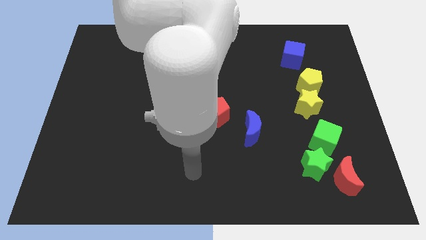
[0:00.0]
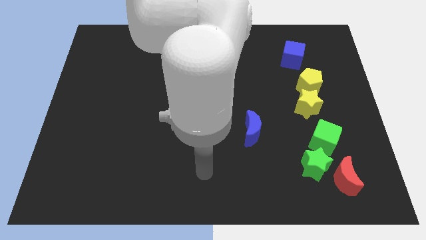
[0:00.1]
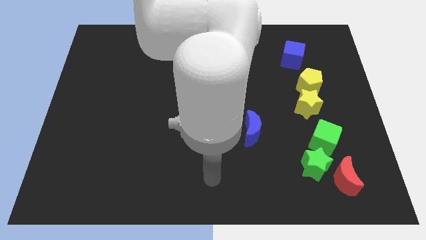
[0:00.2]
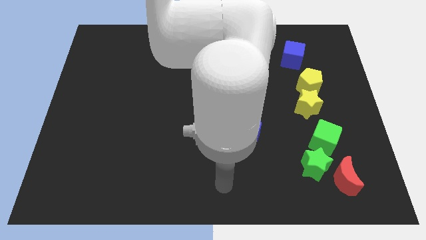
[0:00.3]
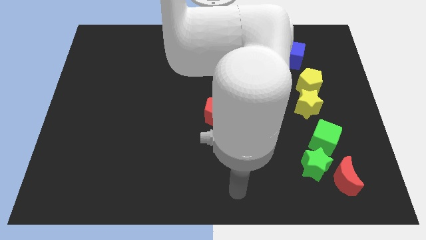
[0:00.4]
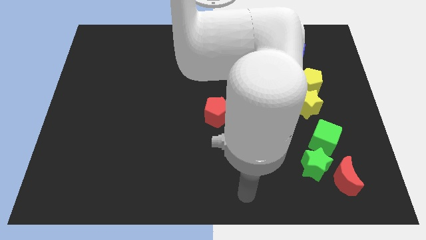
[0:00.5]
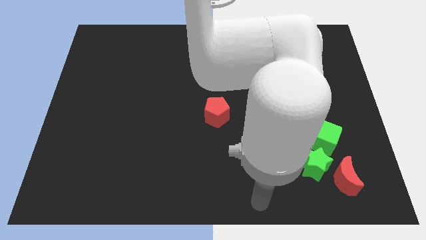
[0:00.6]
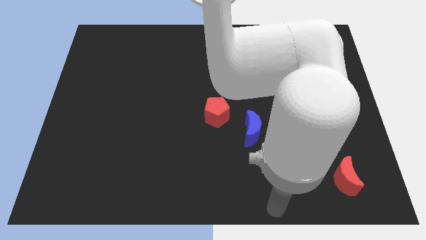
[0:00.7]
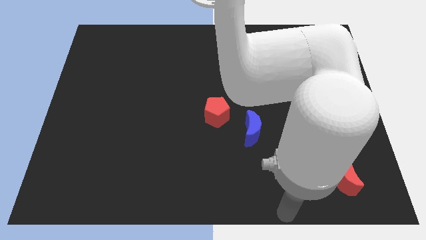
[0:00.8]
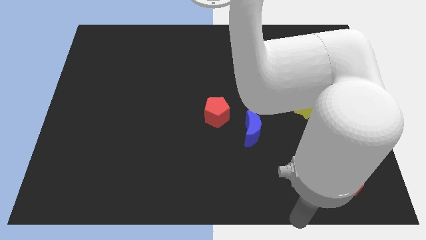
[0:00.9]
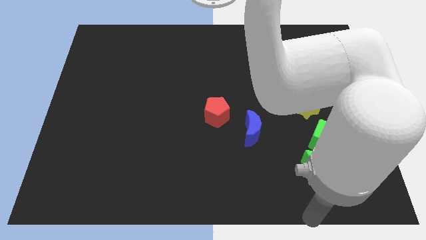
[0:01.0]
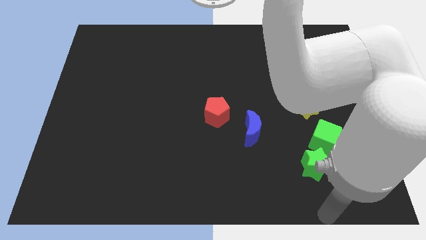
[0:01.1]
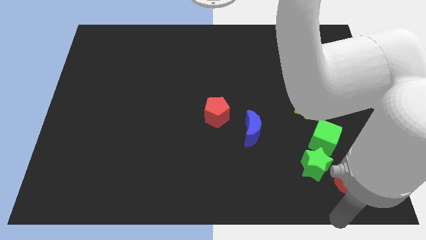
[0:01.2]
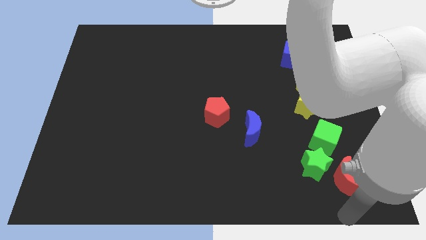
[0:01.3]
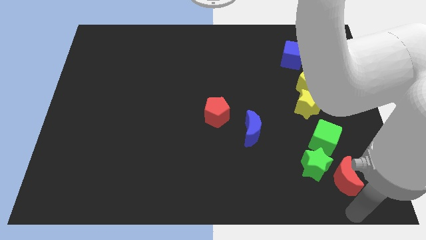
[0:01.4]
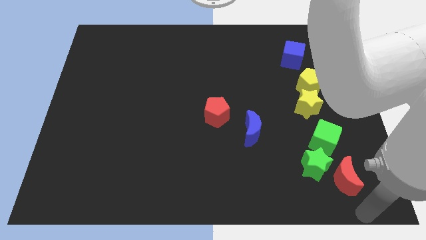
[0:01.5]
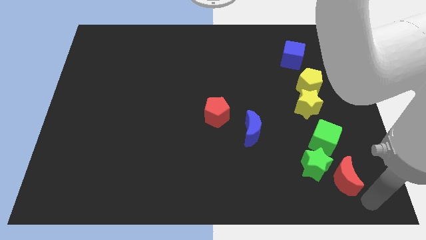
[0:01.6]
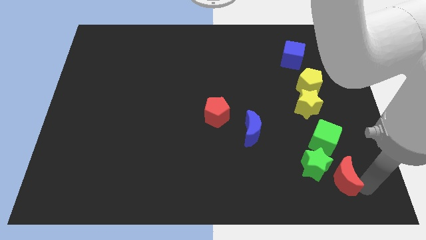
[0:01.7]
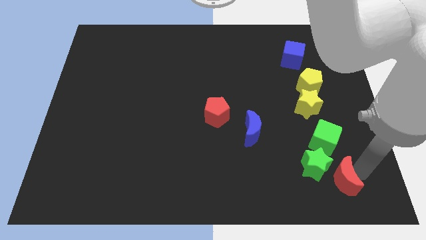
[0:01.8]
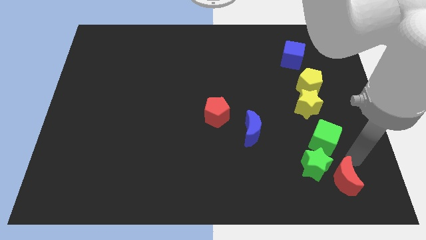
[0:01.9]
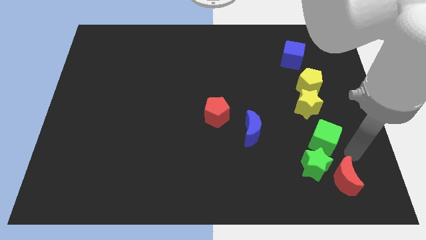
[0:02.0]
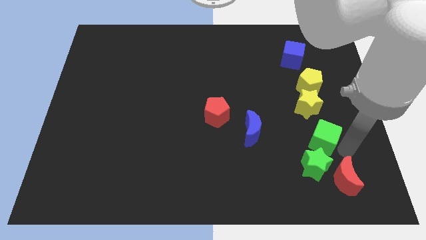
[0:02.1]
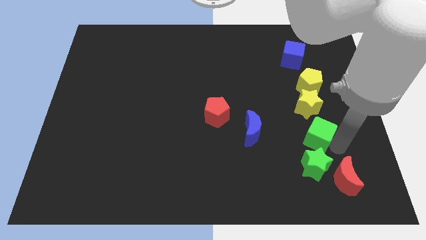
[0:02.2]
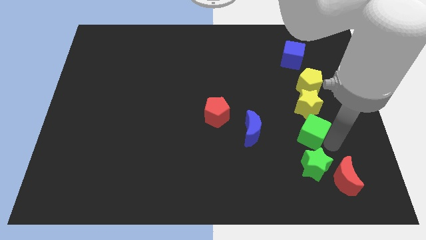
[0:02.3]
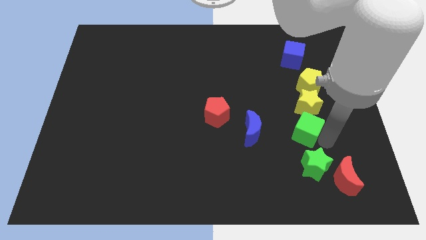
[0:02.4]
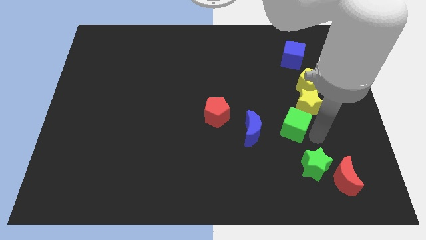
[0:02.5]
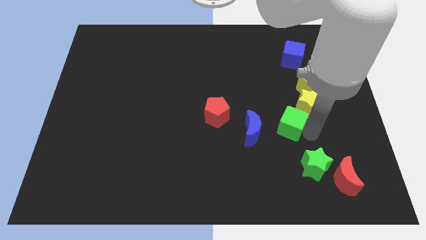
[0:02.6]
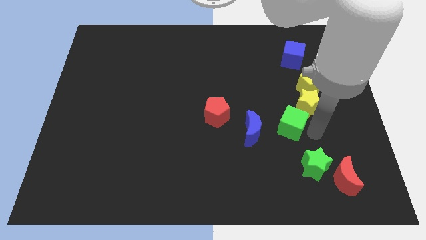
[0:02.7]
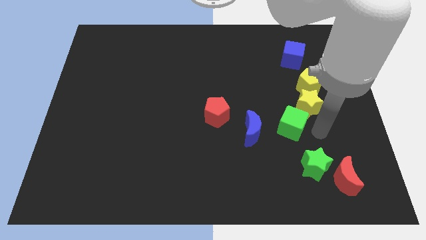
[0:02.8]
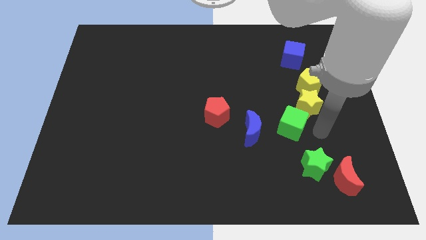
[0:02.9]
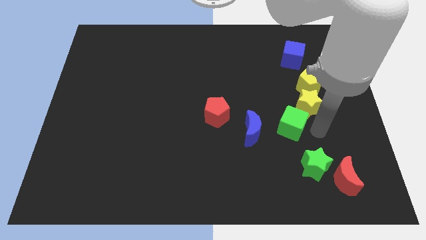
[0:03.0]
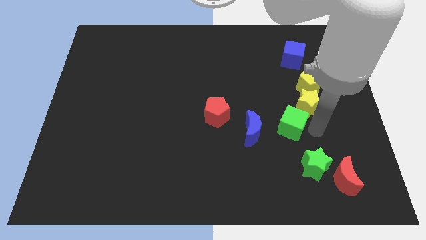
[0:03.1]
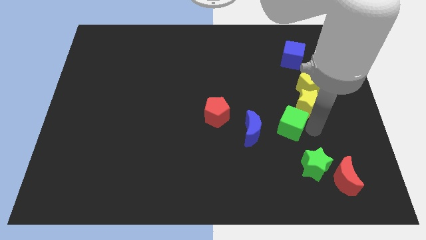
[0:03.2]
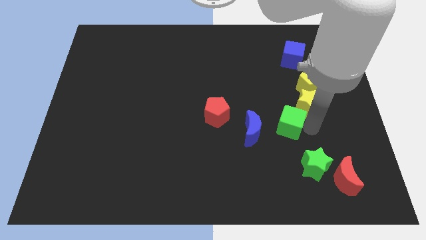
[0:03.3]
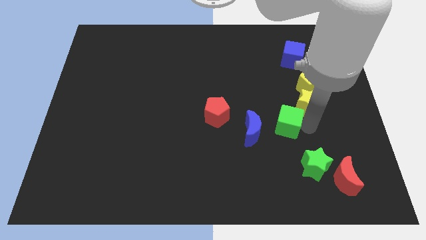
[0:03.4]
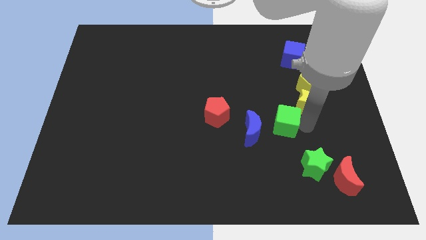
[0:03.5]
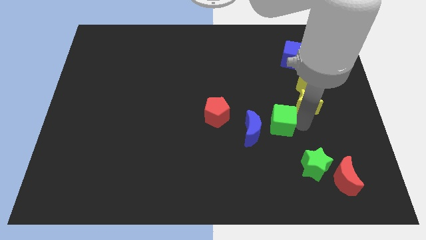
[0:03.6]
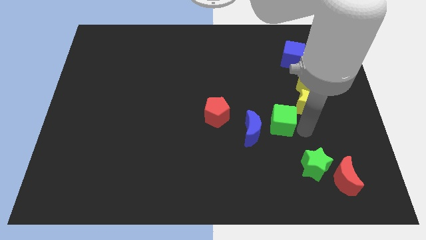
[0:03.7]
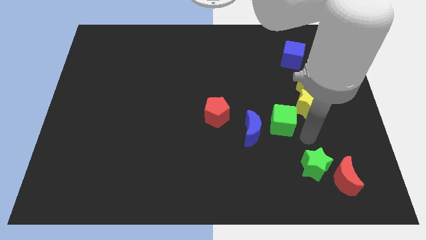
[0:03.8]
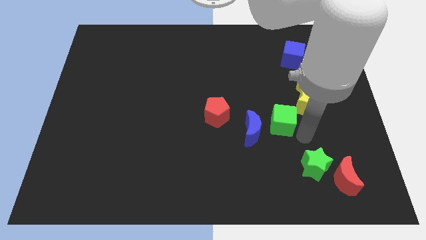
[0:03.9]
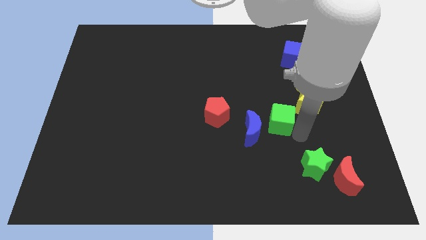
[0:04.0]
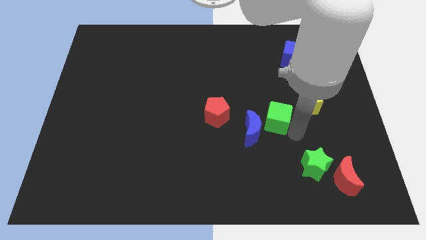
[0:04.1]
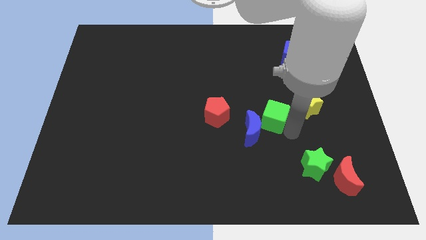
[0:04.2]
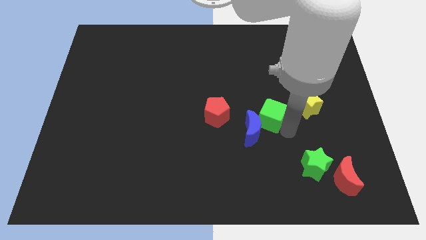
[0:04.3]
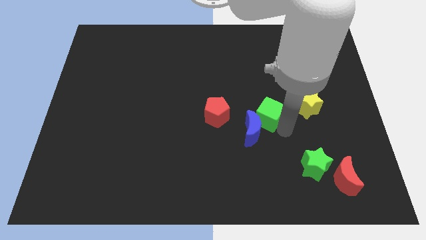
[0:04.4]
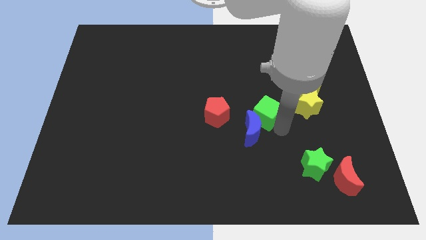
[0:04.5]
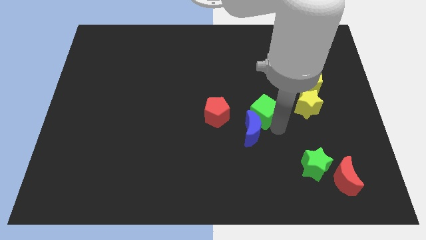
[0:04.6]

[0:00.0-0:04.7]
move the green cube to the center

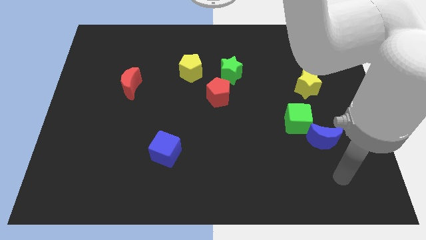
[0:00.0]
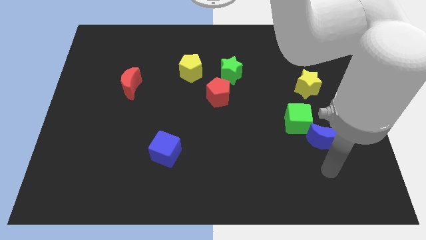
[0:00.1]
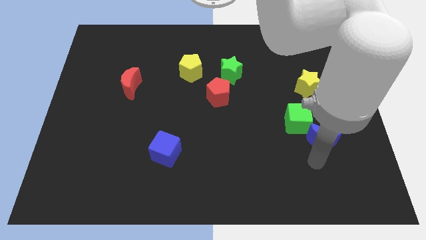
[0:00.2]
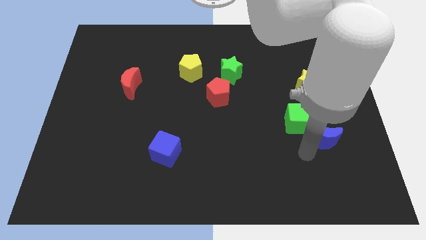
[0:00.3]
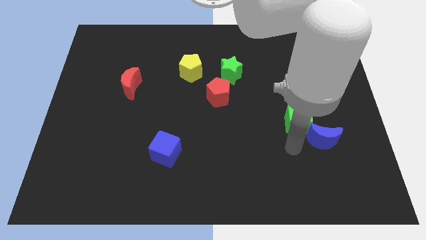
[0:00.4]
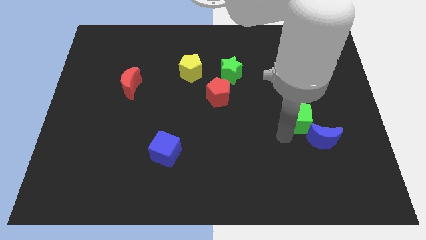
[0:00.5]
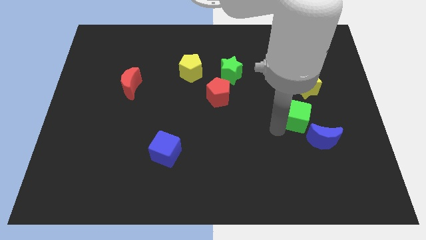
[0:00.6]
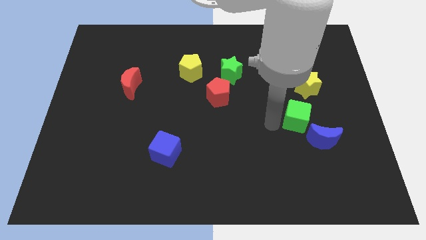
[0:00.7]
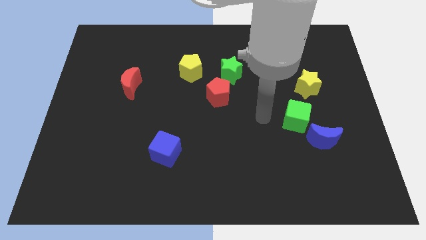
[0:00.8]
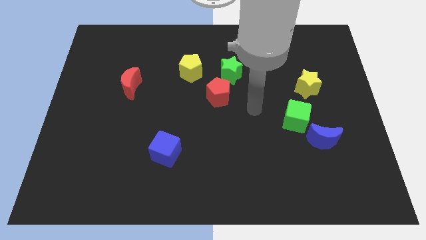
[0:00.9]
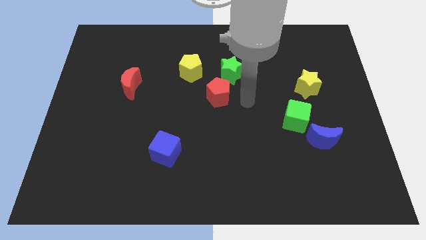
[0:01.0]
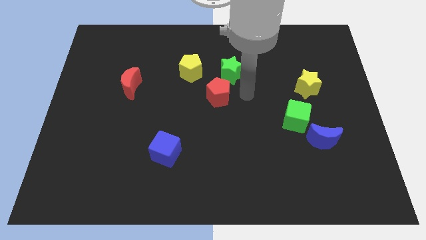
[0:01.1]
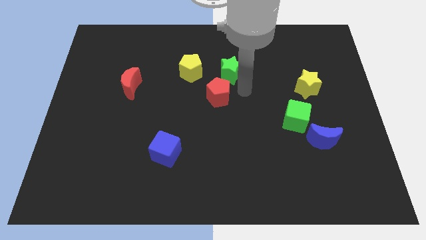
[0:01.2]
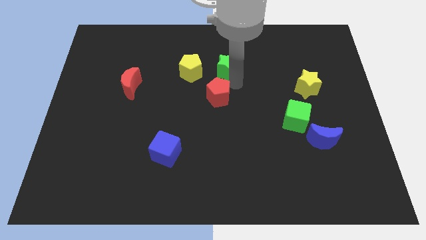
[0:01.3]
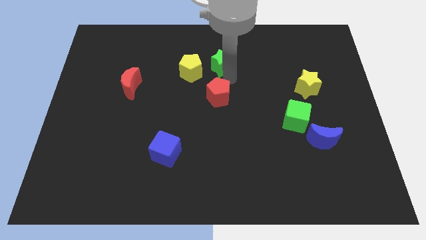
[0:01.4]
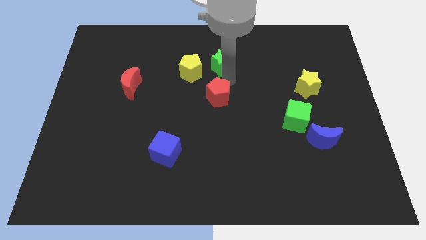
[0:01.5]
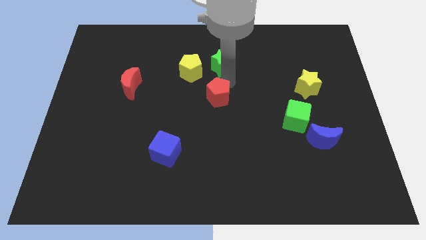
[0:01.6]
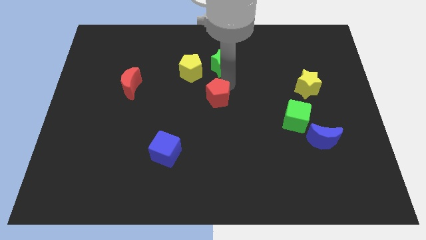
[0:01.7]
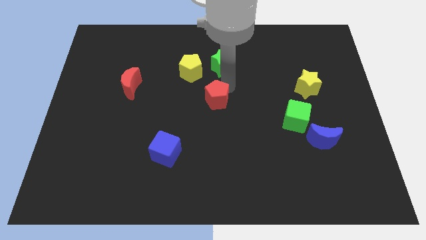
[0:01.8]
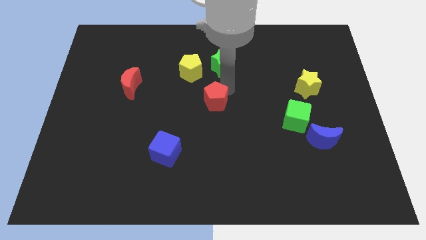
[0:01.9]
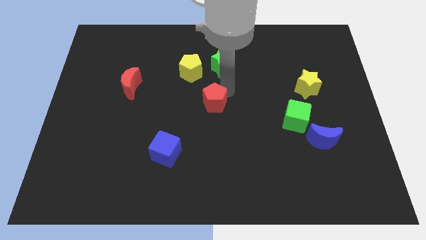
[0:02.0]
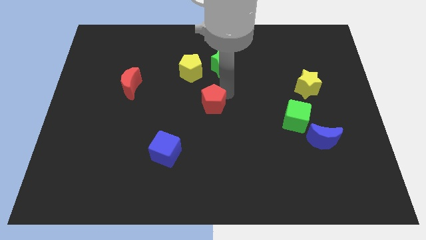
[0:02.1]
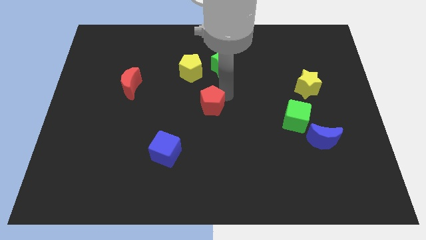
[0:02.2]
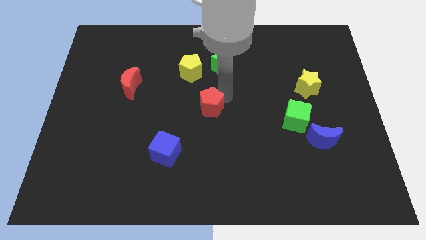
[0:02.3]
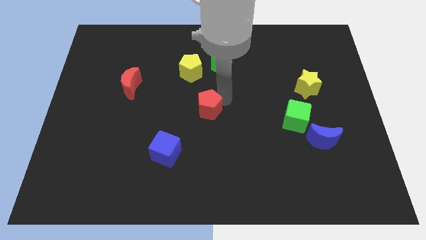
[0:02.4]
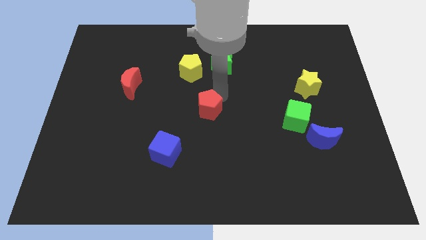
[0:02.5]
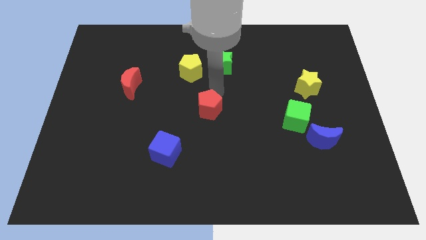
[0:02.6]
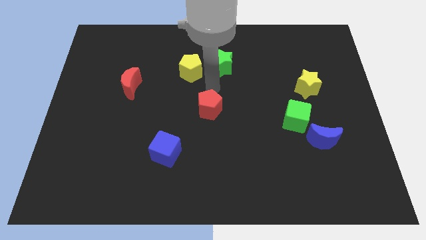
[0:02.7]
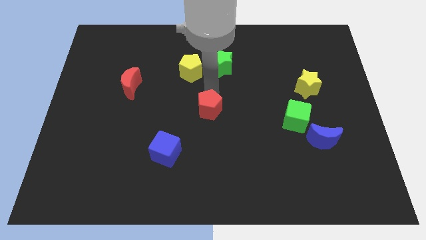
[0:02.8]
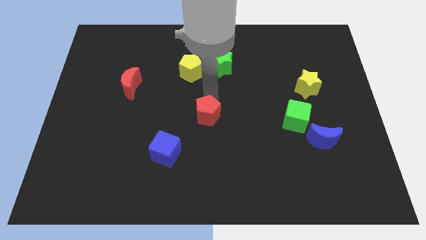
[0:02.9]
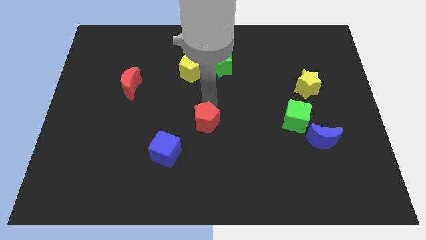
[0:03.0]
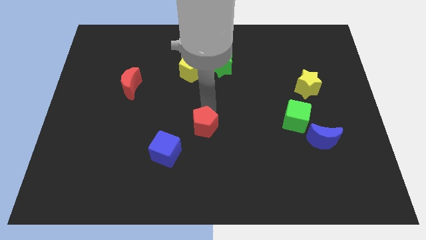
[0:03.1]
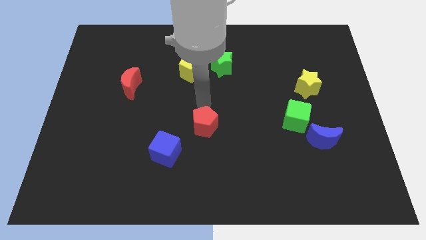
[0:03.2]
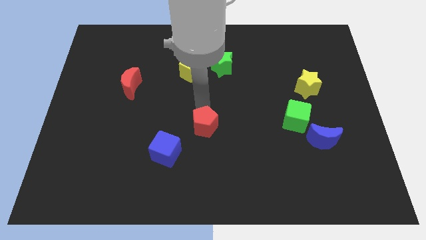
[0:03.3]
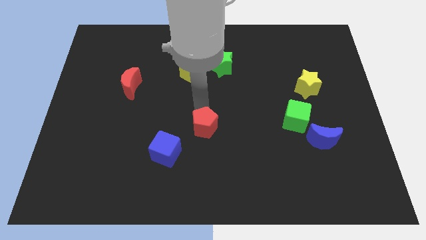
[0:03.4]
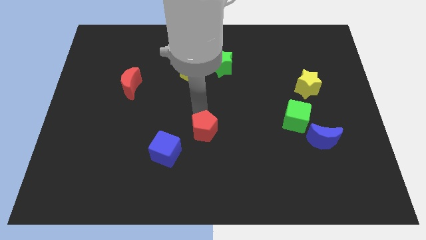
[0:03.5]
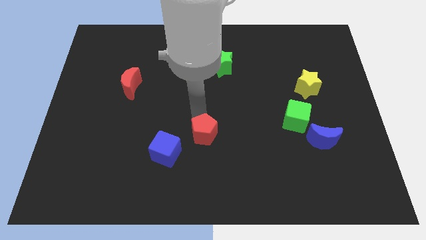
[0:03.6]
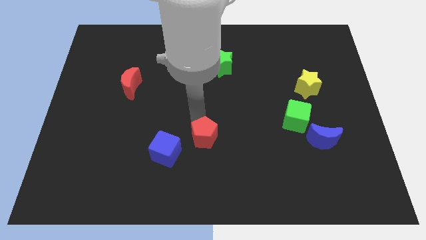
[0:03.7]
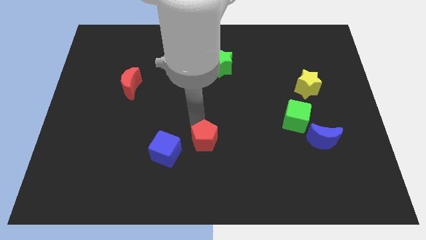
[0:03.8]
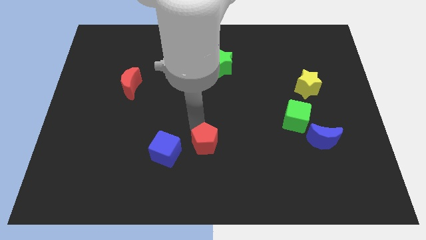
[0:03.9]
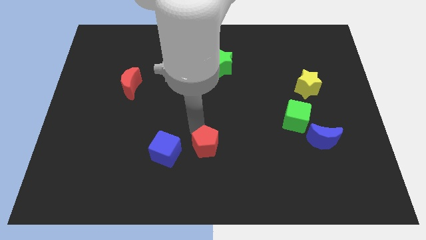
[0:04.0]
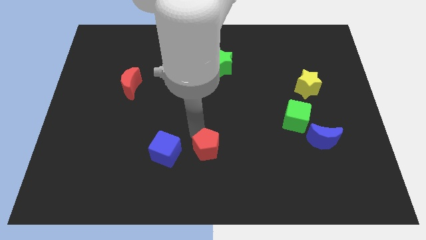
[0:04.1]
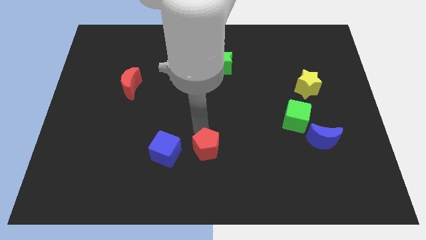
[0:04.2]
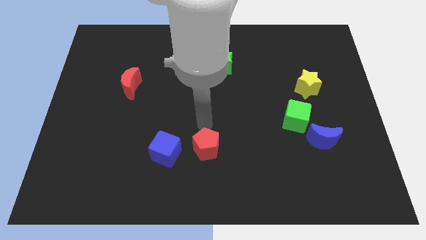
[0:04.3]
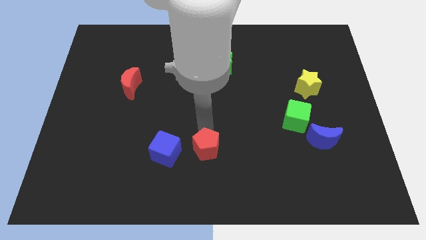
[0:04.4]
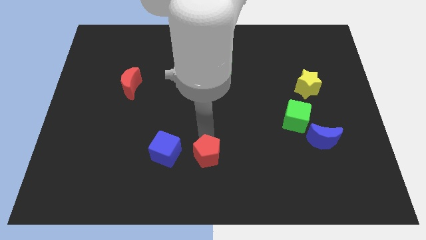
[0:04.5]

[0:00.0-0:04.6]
put the red pentagon to the bottom side
